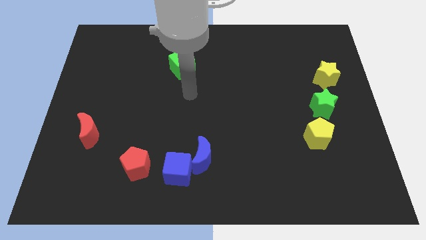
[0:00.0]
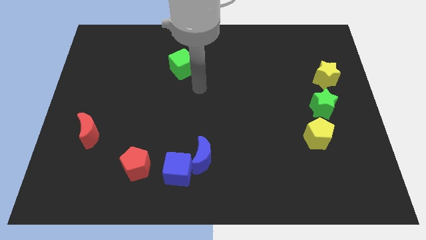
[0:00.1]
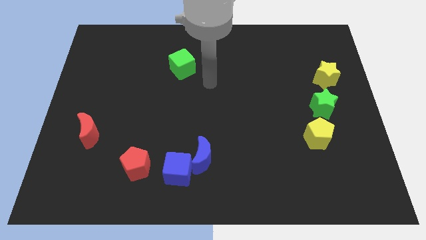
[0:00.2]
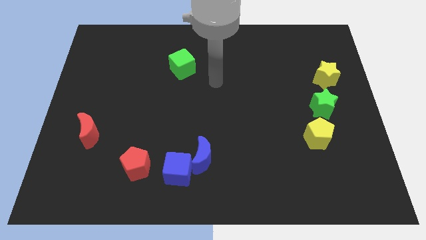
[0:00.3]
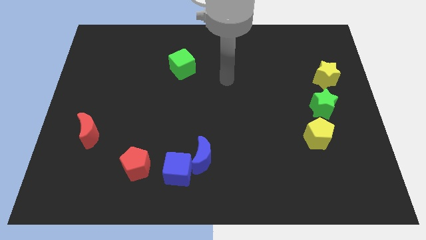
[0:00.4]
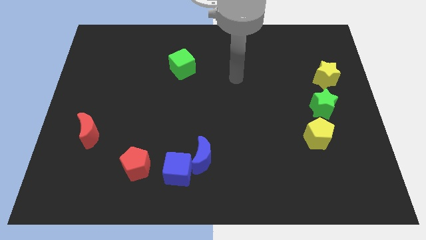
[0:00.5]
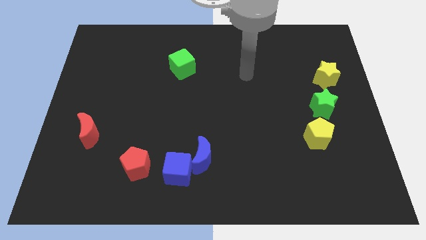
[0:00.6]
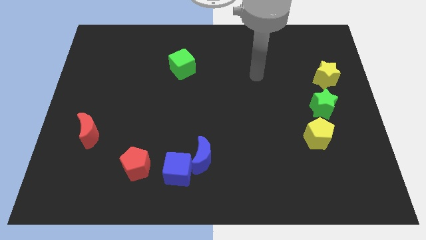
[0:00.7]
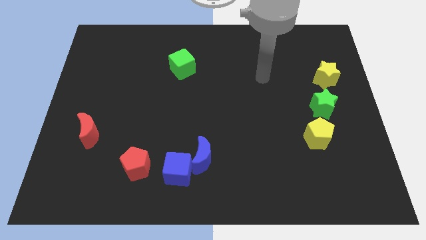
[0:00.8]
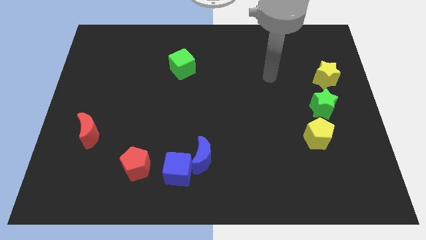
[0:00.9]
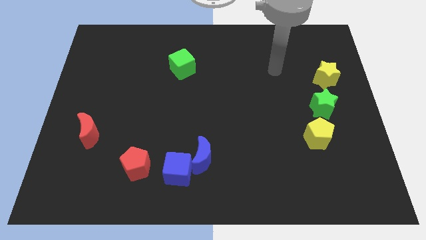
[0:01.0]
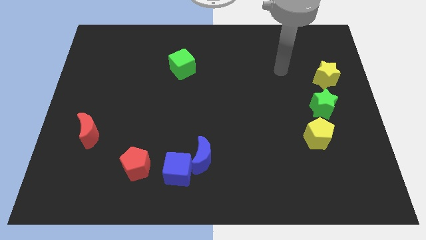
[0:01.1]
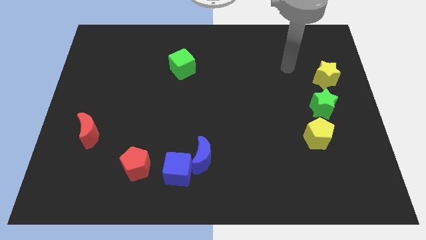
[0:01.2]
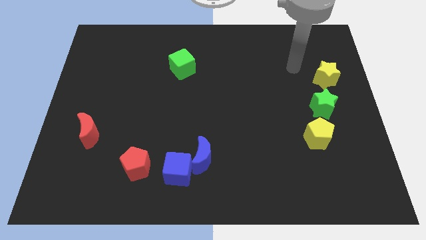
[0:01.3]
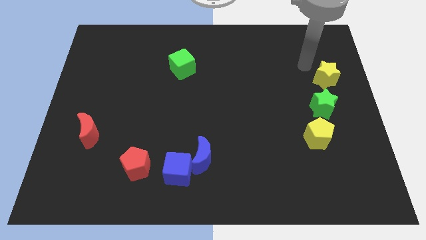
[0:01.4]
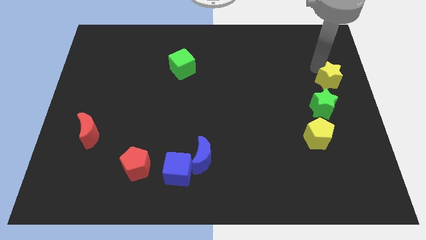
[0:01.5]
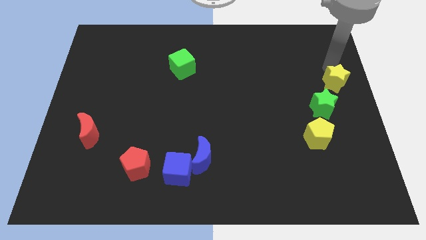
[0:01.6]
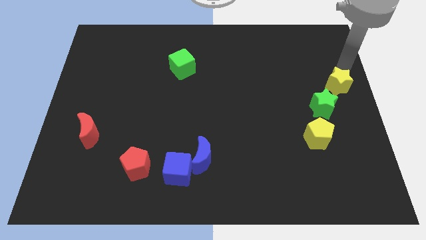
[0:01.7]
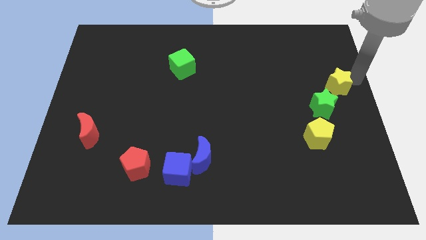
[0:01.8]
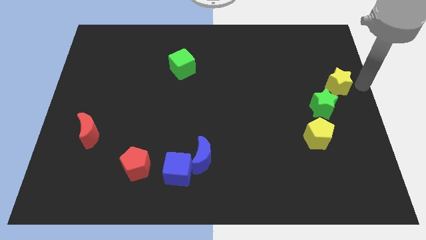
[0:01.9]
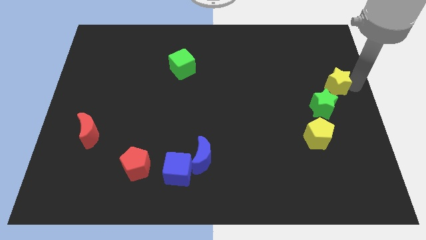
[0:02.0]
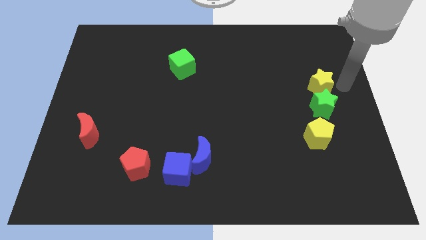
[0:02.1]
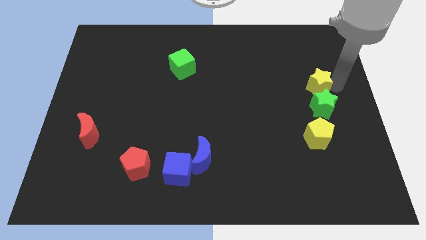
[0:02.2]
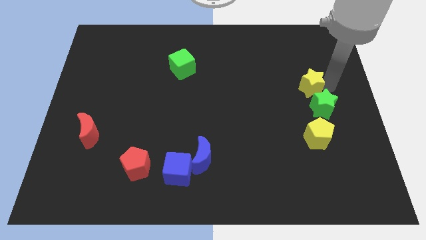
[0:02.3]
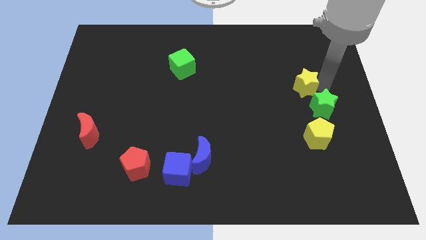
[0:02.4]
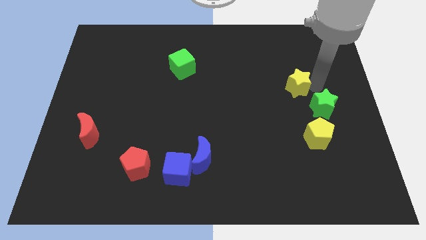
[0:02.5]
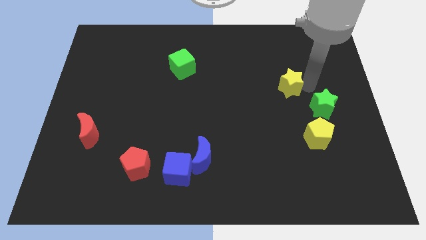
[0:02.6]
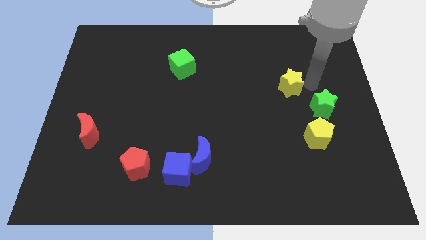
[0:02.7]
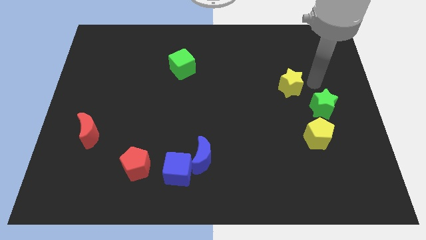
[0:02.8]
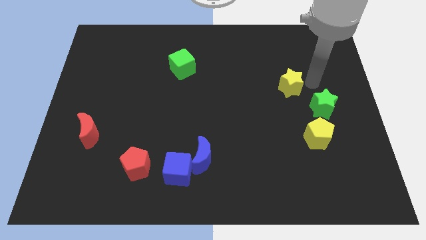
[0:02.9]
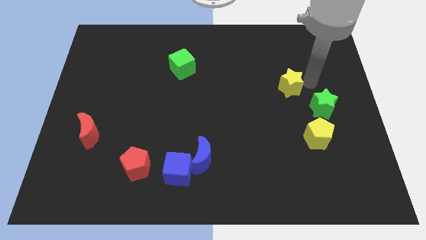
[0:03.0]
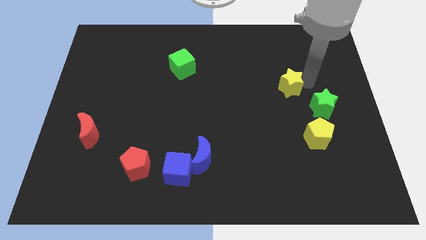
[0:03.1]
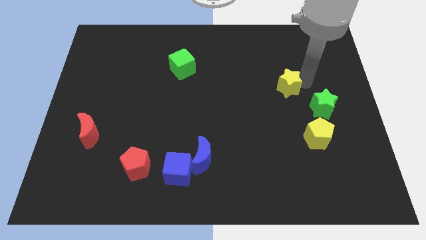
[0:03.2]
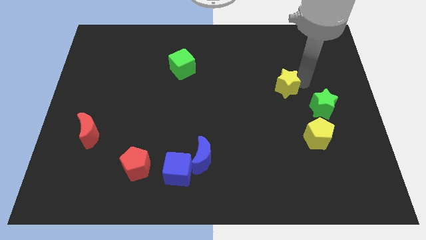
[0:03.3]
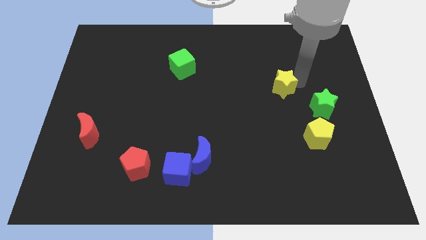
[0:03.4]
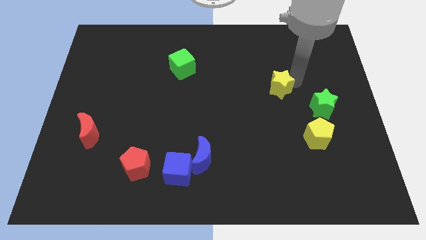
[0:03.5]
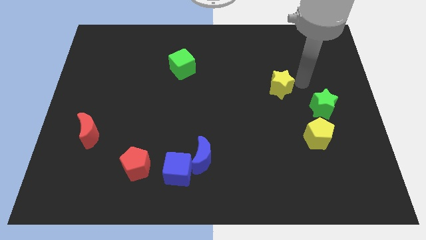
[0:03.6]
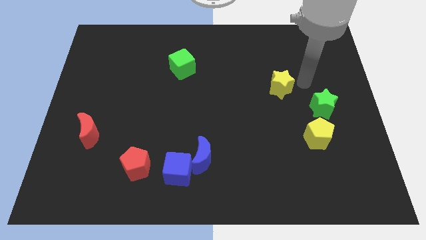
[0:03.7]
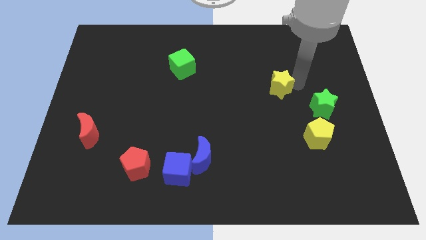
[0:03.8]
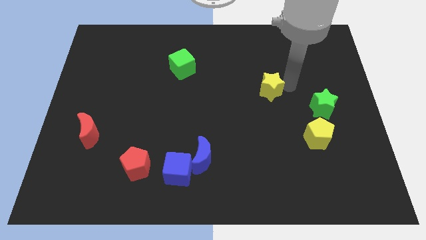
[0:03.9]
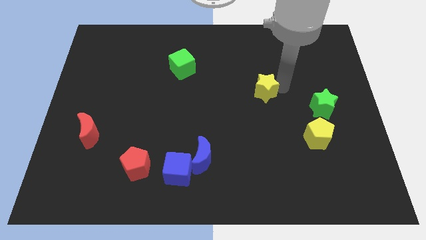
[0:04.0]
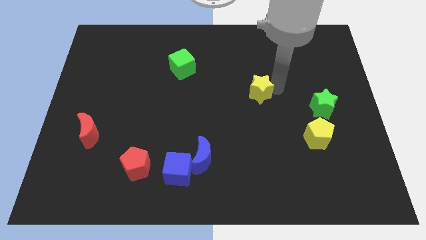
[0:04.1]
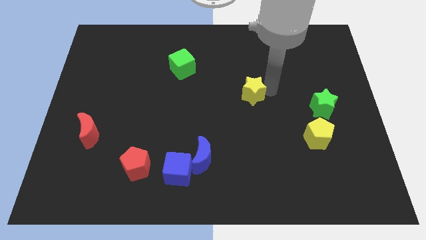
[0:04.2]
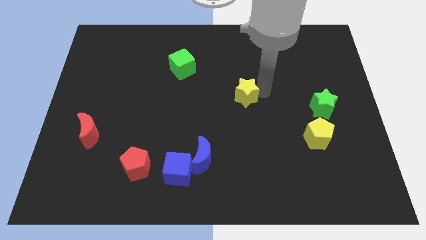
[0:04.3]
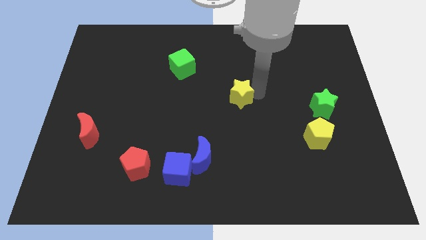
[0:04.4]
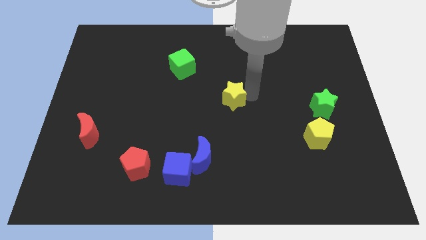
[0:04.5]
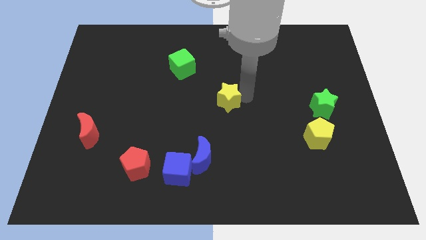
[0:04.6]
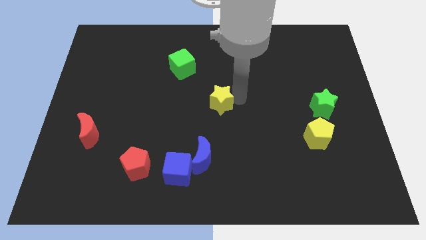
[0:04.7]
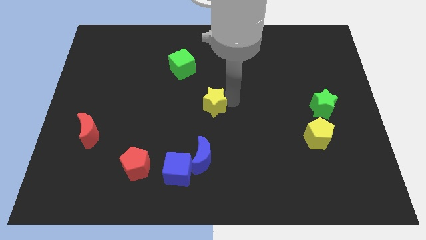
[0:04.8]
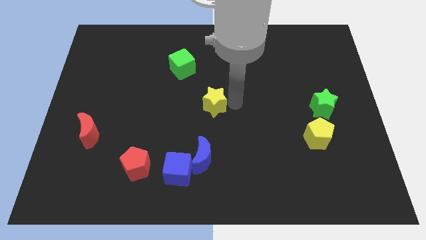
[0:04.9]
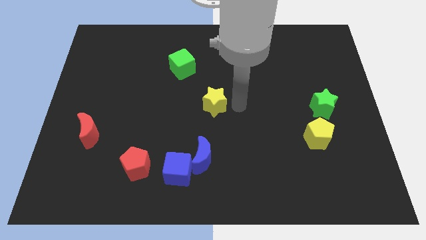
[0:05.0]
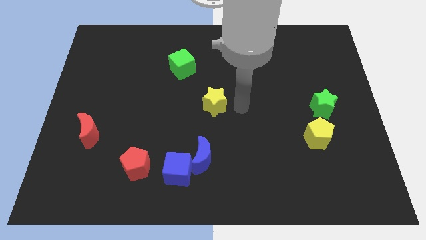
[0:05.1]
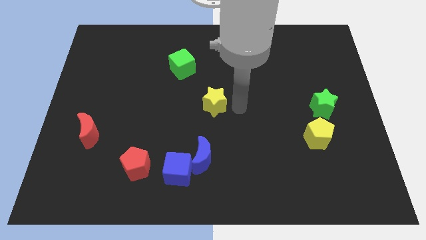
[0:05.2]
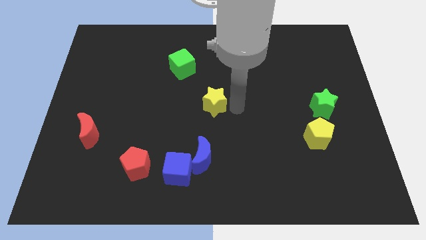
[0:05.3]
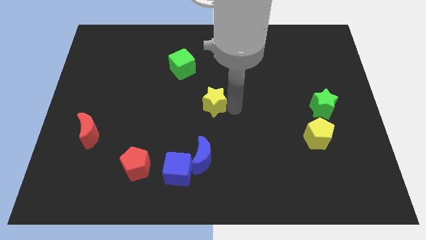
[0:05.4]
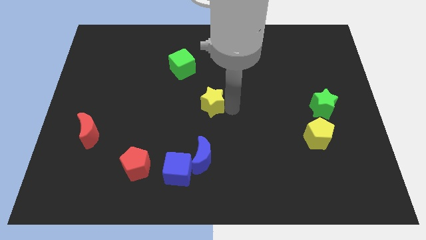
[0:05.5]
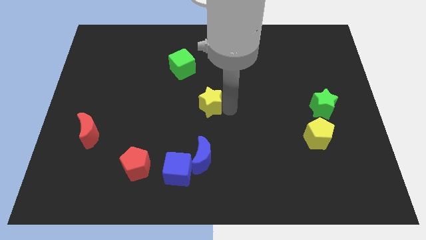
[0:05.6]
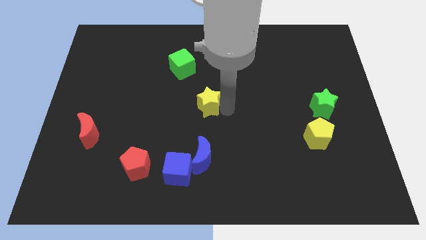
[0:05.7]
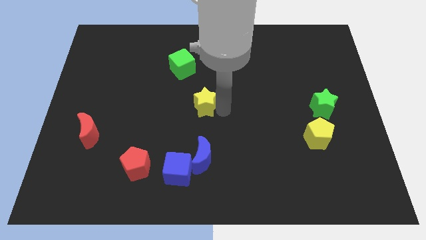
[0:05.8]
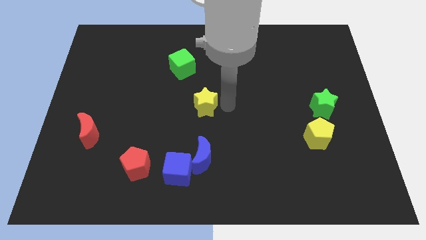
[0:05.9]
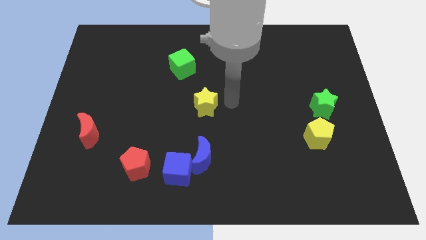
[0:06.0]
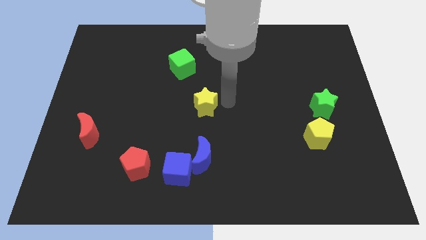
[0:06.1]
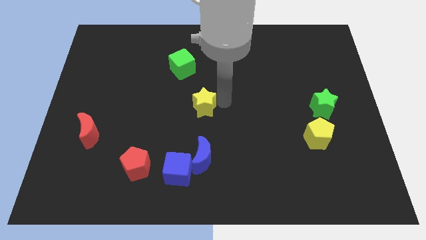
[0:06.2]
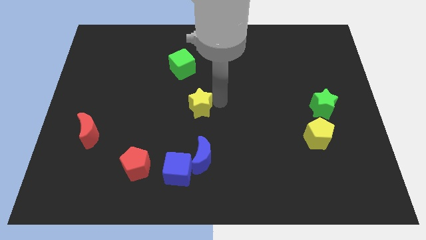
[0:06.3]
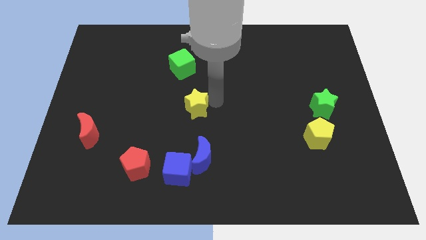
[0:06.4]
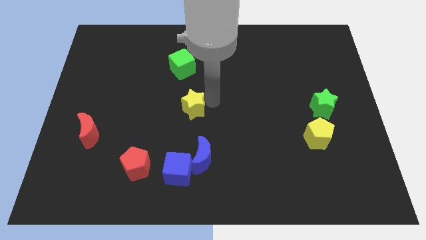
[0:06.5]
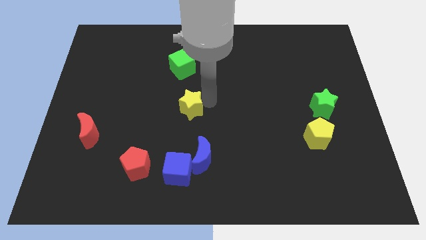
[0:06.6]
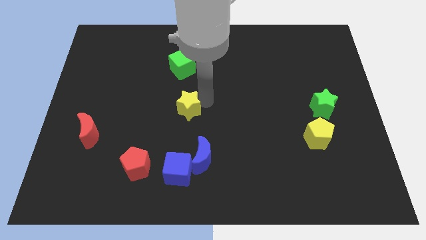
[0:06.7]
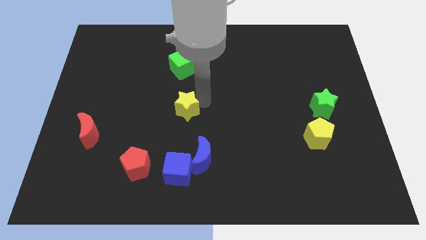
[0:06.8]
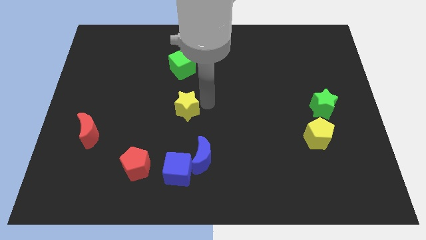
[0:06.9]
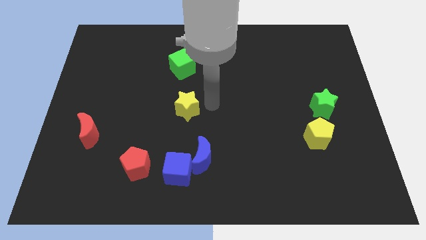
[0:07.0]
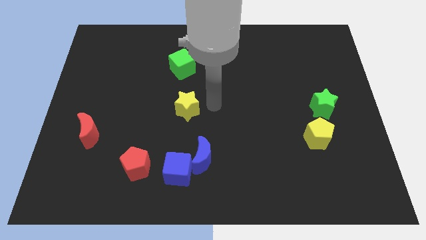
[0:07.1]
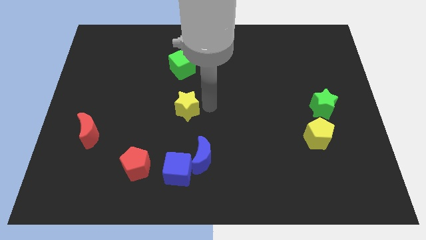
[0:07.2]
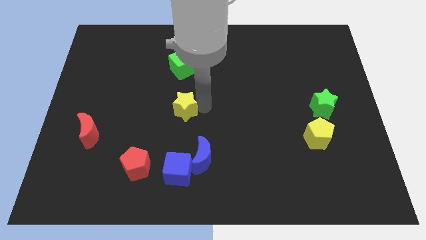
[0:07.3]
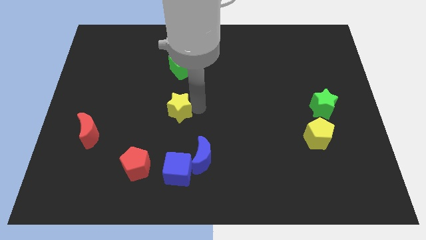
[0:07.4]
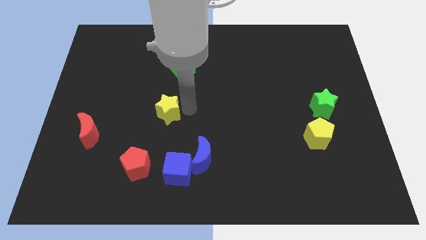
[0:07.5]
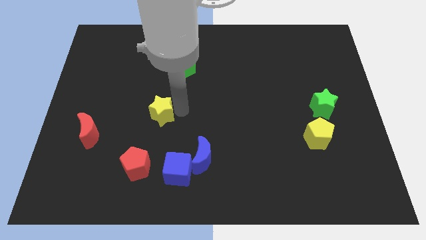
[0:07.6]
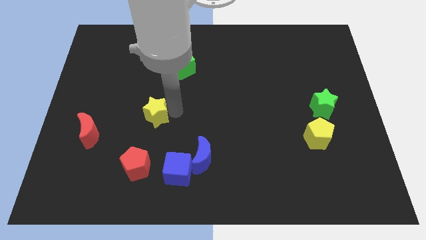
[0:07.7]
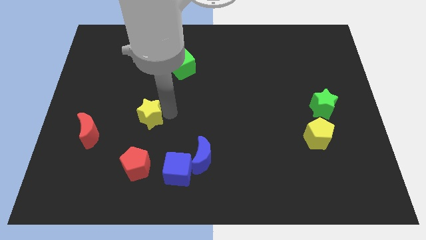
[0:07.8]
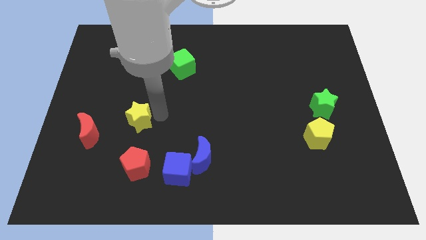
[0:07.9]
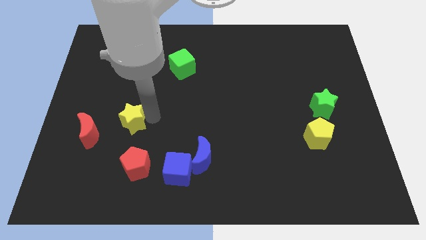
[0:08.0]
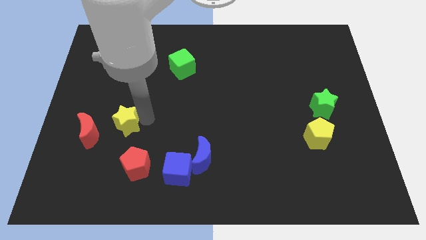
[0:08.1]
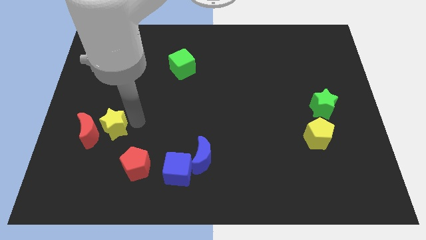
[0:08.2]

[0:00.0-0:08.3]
slide the yellow star next to the red moon
